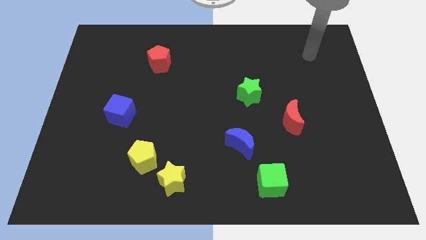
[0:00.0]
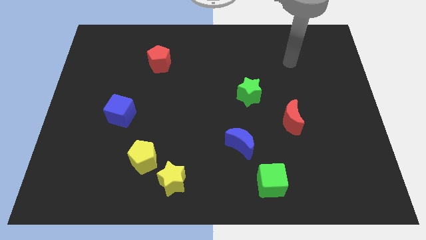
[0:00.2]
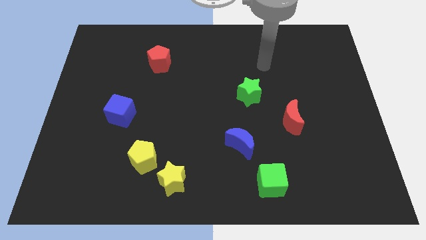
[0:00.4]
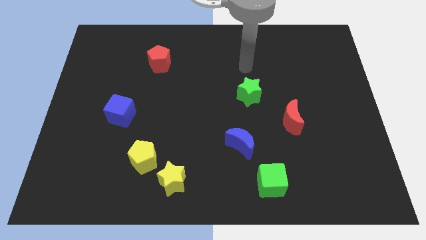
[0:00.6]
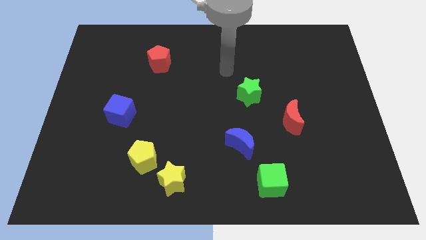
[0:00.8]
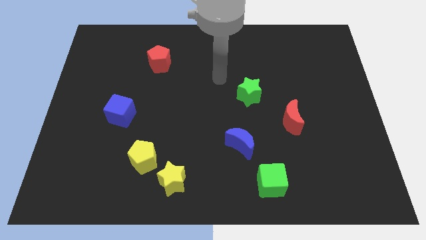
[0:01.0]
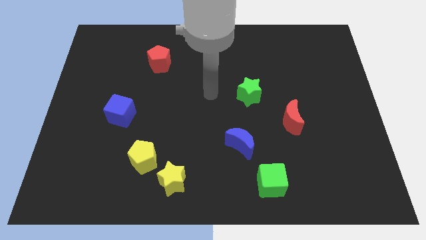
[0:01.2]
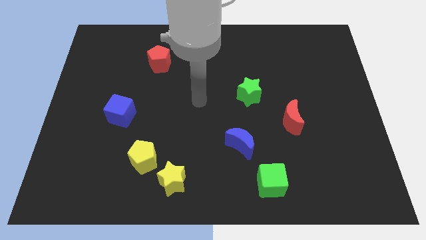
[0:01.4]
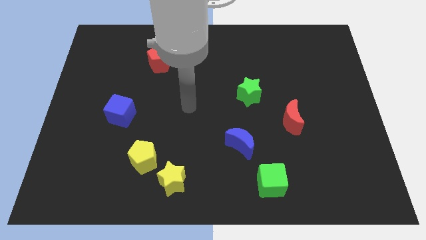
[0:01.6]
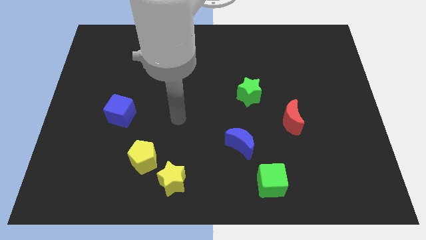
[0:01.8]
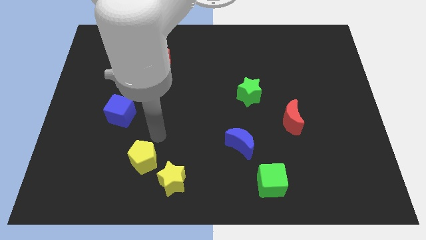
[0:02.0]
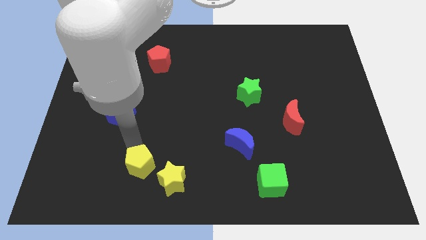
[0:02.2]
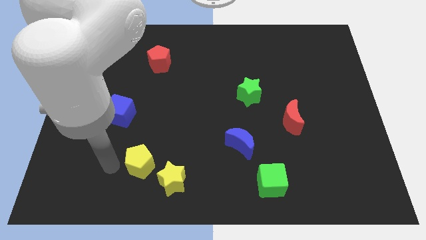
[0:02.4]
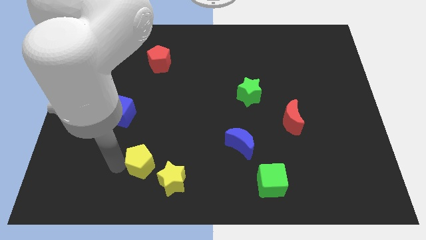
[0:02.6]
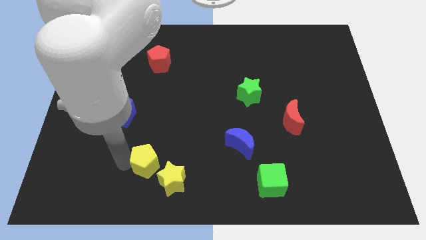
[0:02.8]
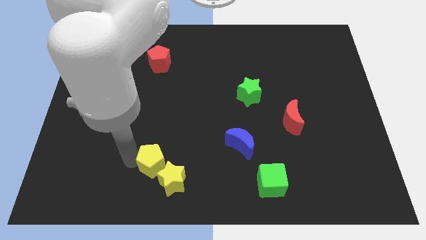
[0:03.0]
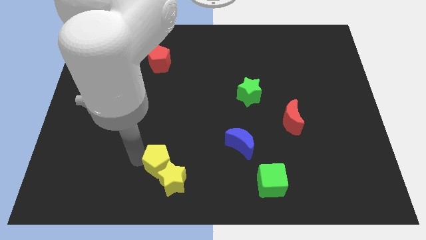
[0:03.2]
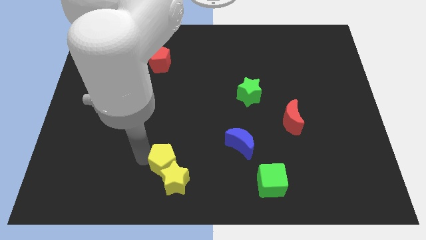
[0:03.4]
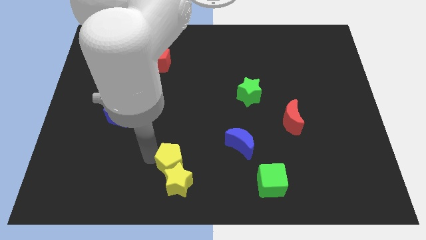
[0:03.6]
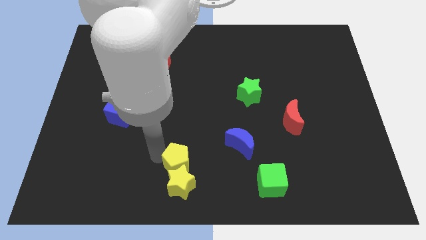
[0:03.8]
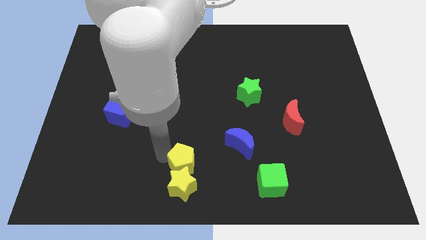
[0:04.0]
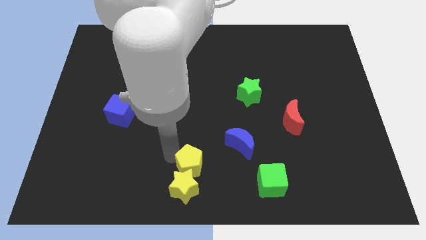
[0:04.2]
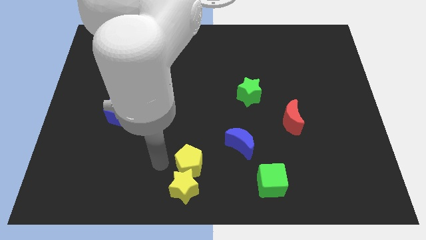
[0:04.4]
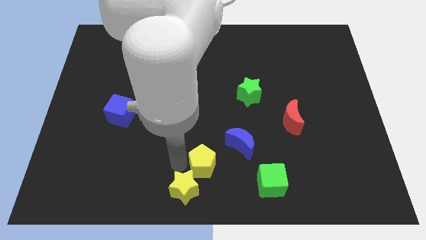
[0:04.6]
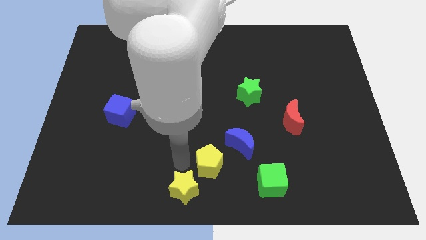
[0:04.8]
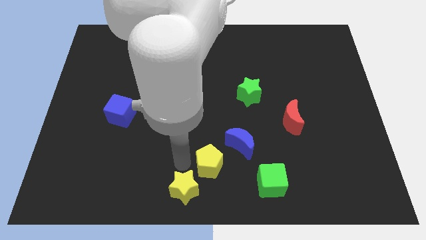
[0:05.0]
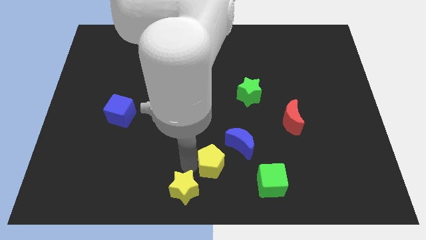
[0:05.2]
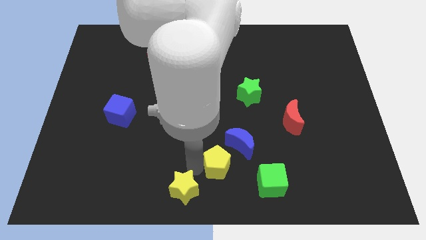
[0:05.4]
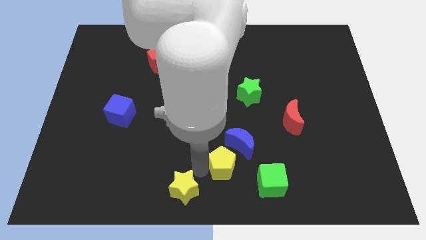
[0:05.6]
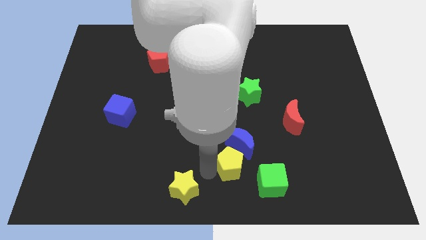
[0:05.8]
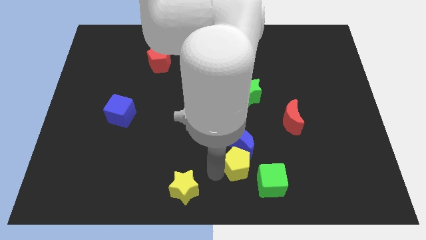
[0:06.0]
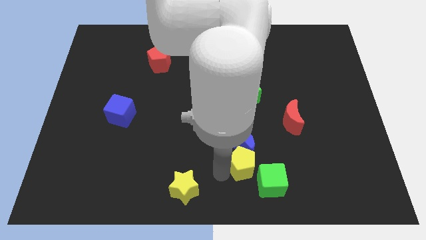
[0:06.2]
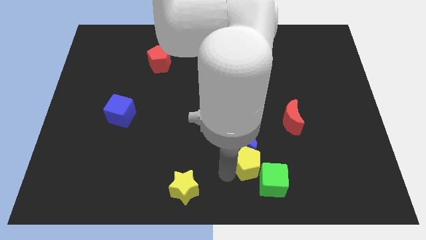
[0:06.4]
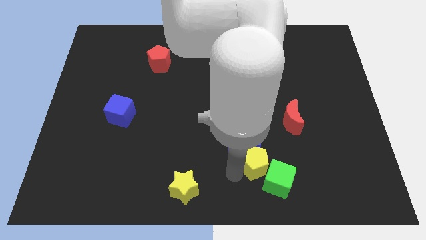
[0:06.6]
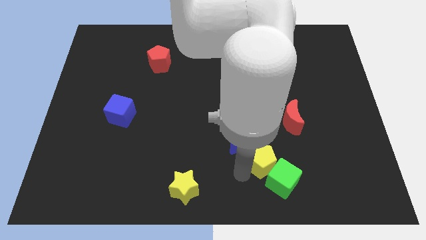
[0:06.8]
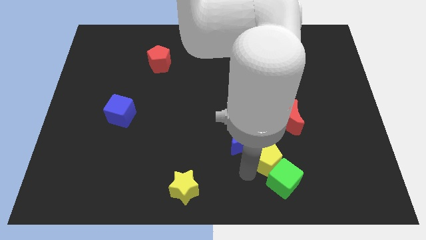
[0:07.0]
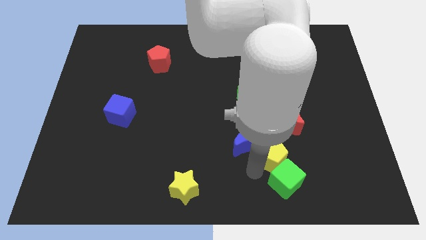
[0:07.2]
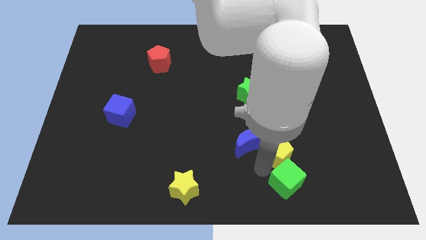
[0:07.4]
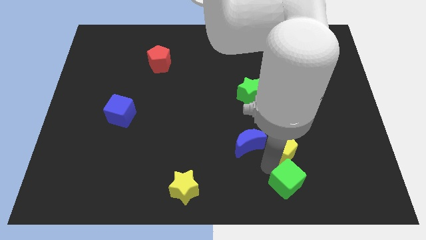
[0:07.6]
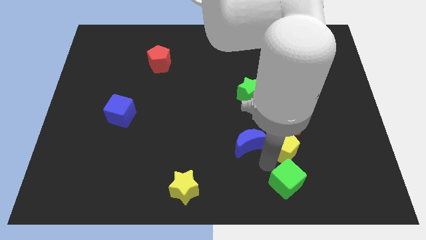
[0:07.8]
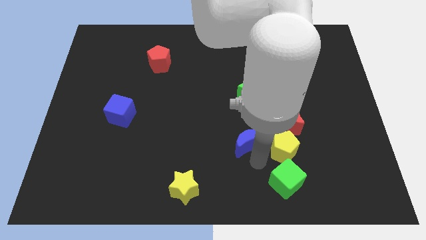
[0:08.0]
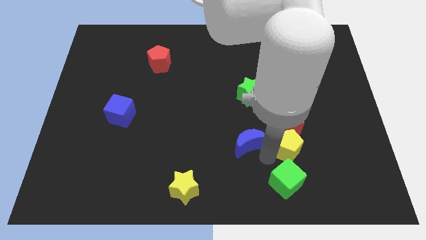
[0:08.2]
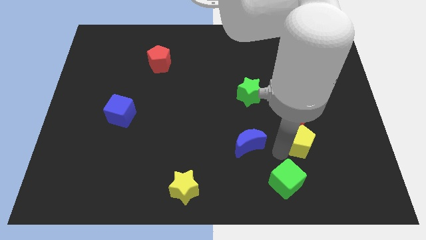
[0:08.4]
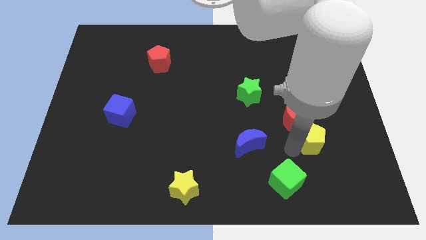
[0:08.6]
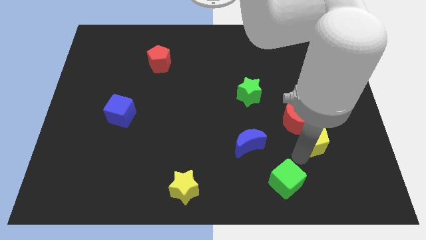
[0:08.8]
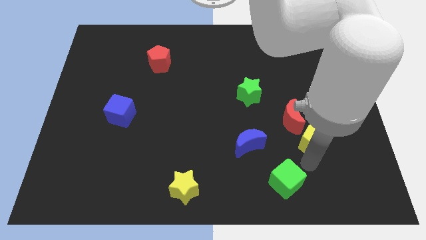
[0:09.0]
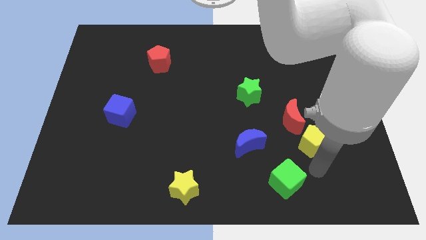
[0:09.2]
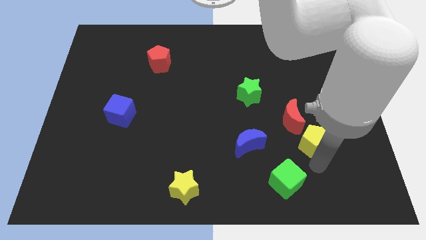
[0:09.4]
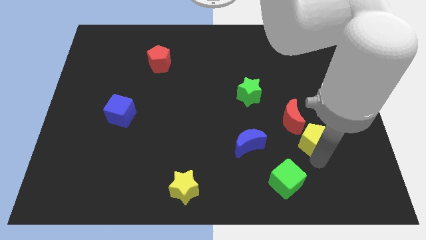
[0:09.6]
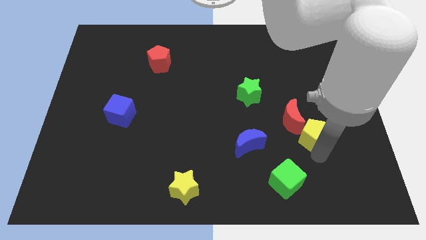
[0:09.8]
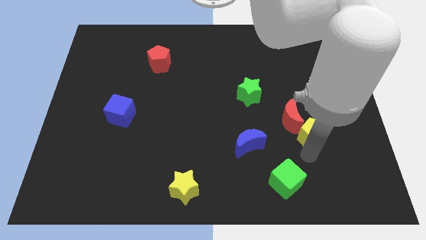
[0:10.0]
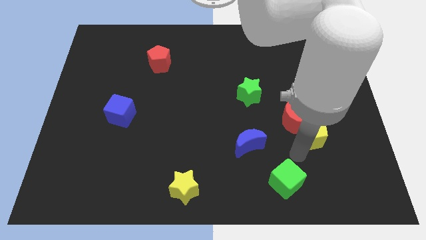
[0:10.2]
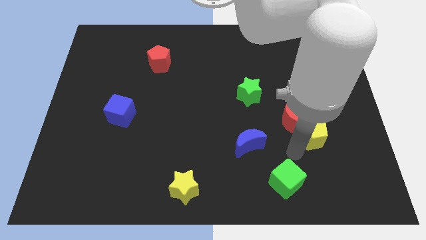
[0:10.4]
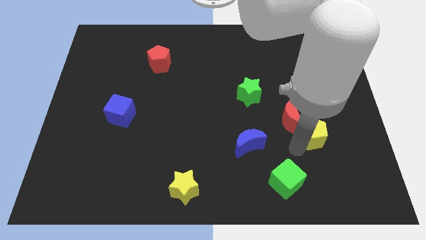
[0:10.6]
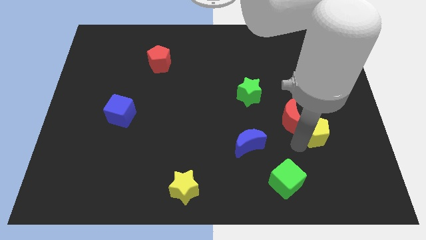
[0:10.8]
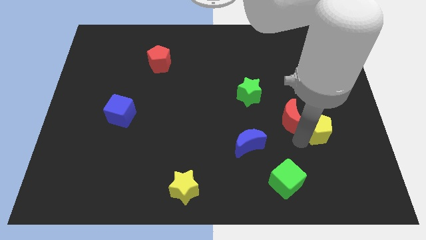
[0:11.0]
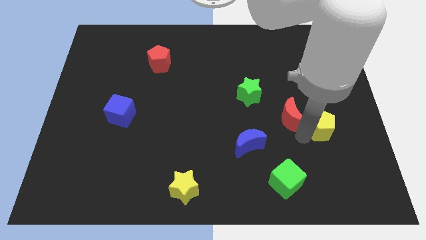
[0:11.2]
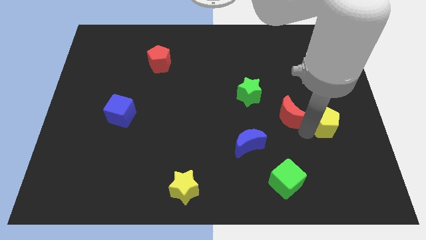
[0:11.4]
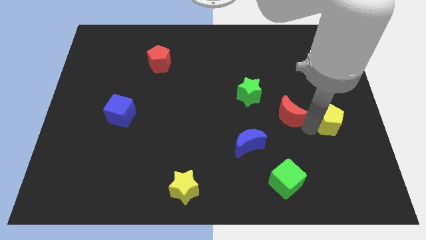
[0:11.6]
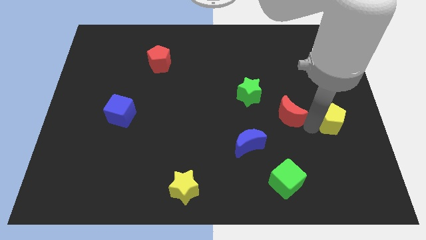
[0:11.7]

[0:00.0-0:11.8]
slide the yellow pentagon to the center right
